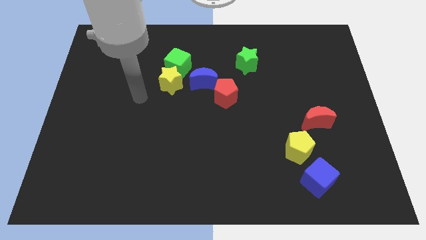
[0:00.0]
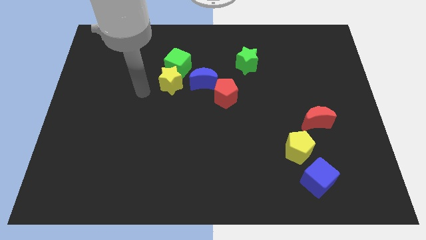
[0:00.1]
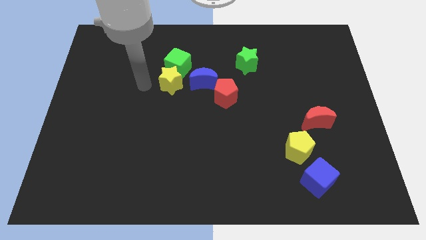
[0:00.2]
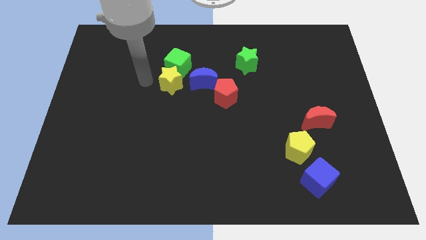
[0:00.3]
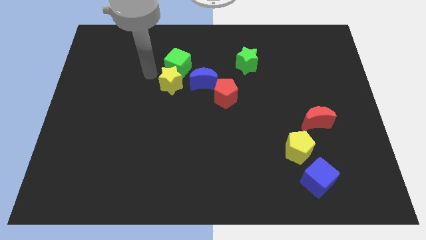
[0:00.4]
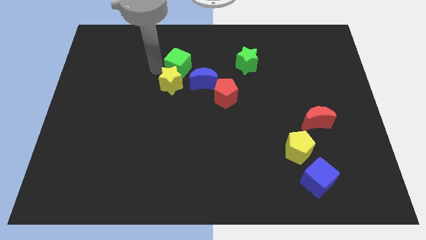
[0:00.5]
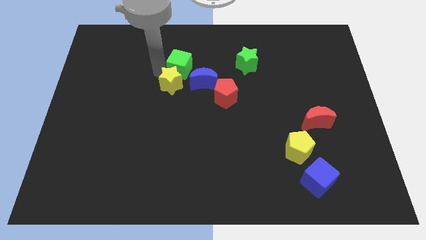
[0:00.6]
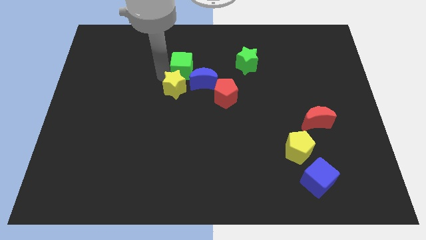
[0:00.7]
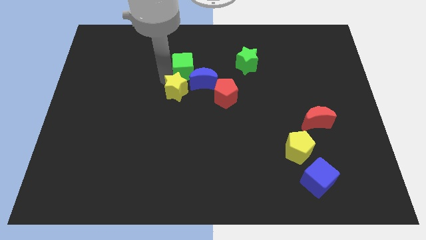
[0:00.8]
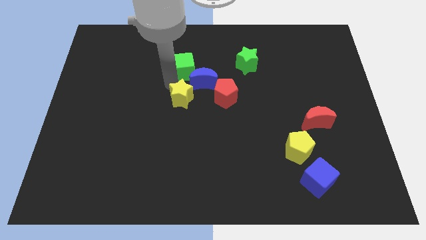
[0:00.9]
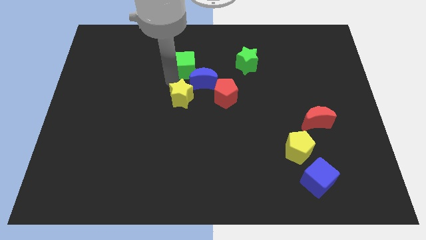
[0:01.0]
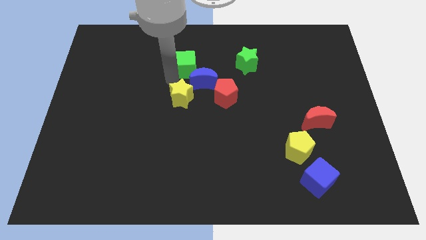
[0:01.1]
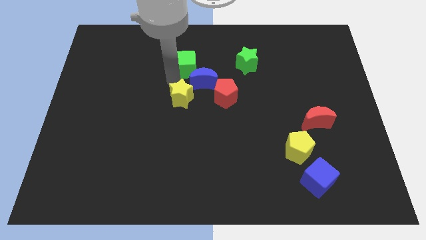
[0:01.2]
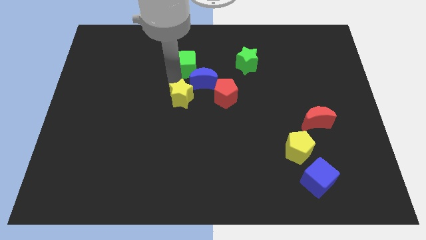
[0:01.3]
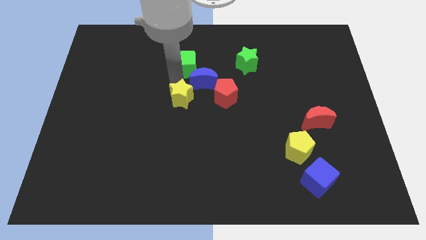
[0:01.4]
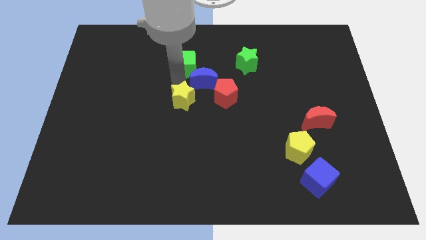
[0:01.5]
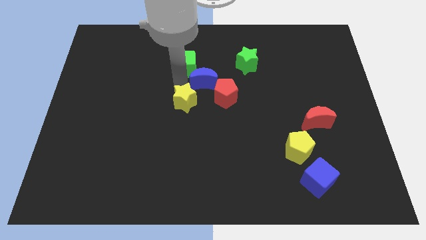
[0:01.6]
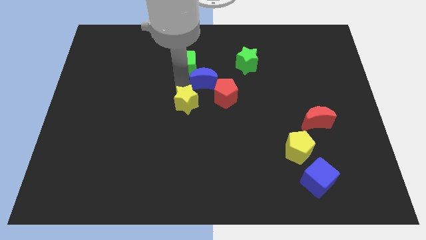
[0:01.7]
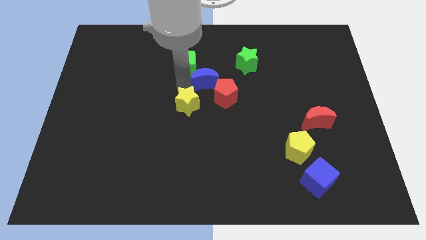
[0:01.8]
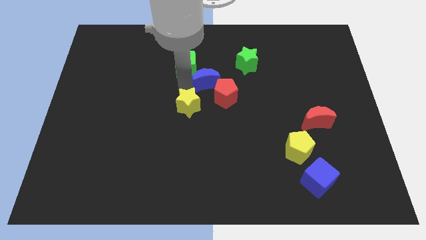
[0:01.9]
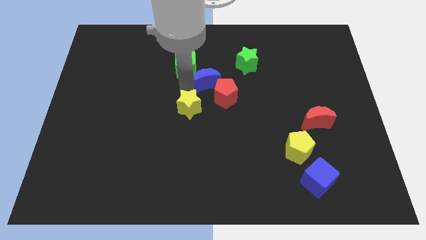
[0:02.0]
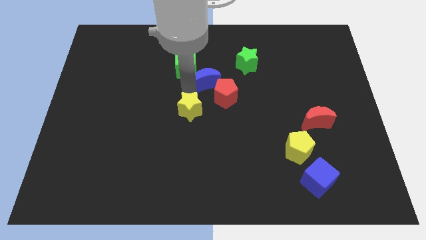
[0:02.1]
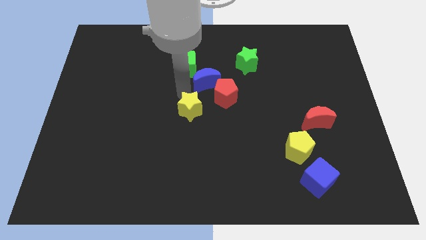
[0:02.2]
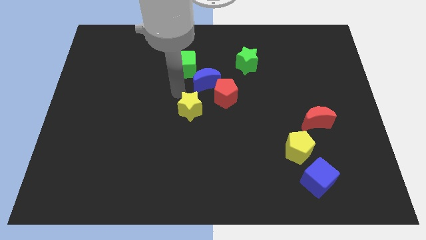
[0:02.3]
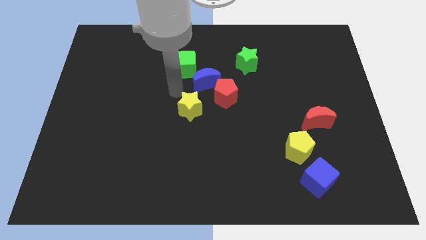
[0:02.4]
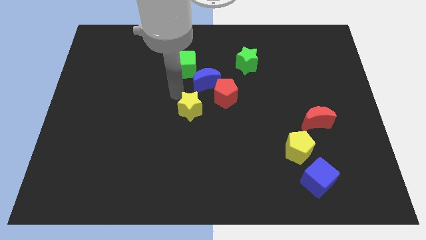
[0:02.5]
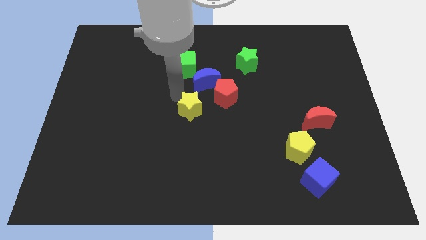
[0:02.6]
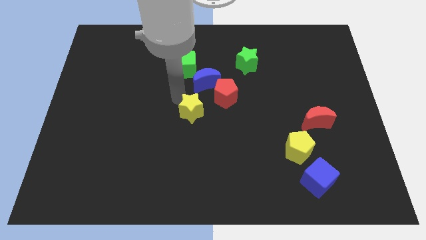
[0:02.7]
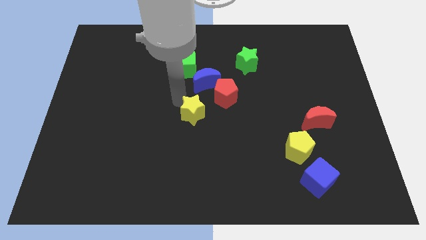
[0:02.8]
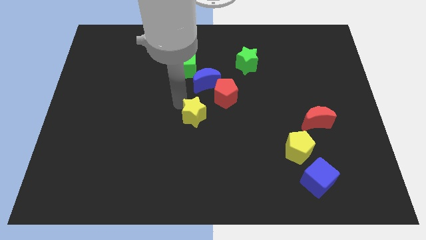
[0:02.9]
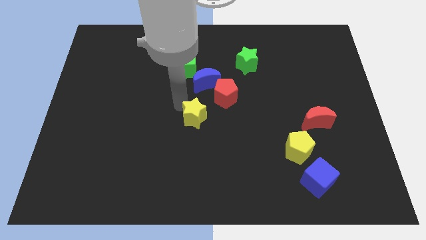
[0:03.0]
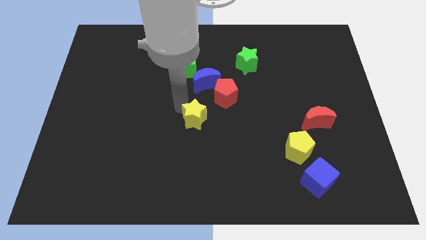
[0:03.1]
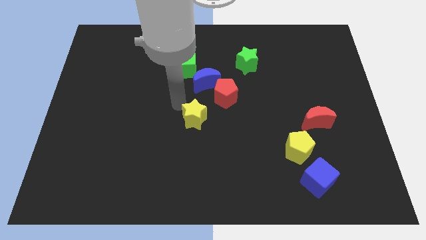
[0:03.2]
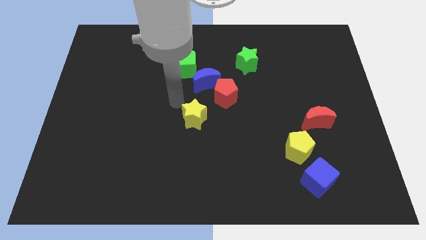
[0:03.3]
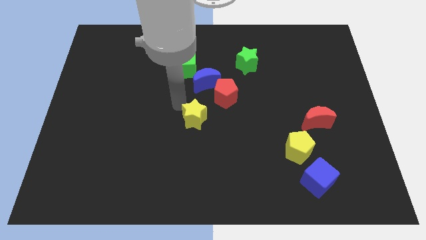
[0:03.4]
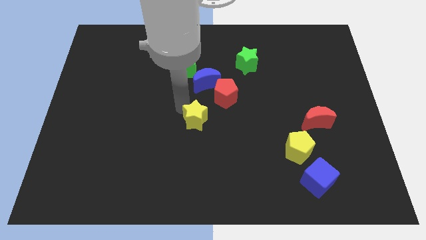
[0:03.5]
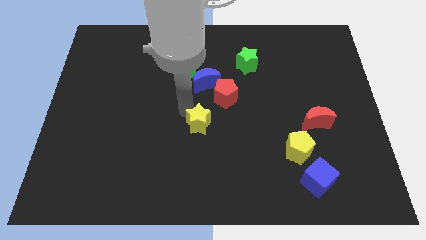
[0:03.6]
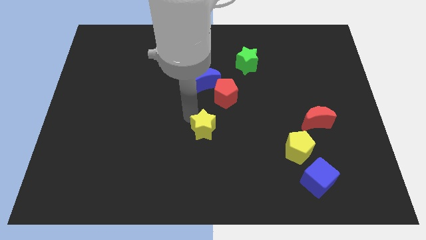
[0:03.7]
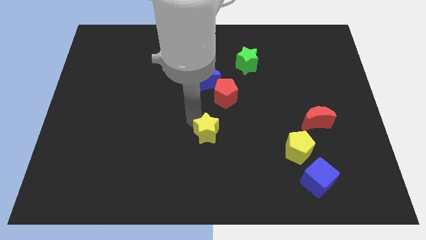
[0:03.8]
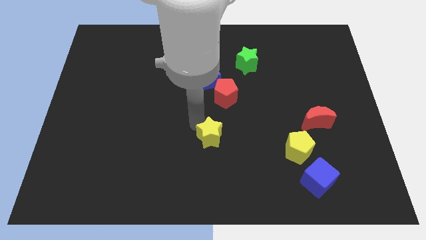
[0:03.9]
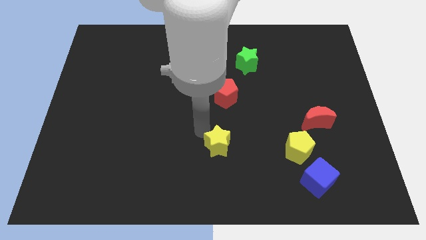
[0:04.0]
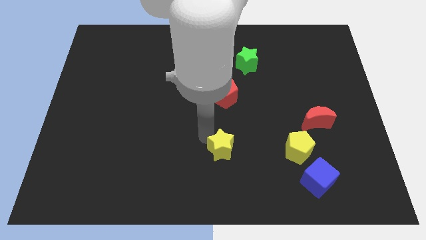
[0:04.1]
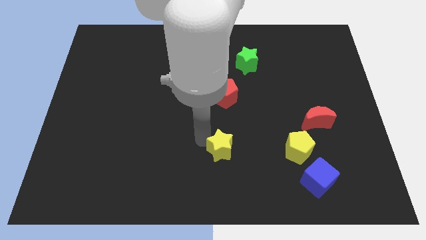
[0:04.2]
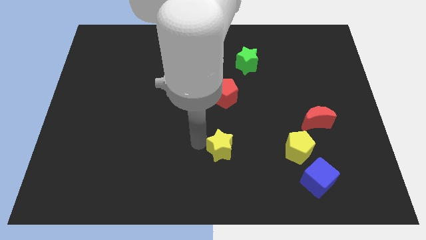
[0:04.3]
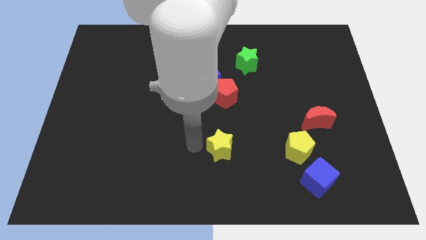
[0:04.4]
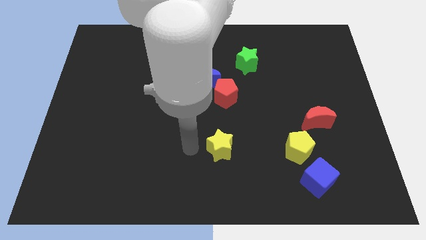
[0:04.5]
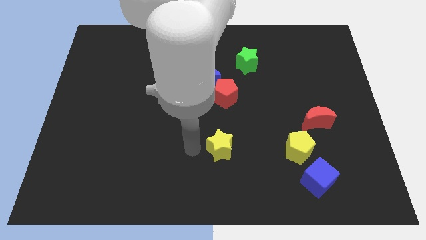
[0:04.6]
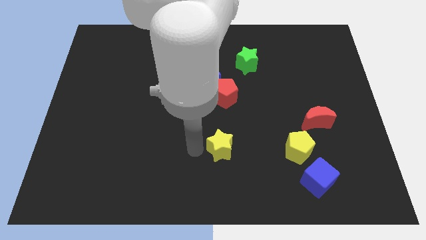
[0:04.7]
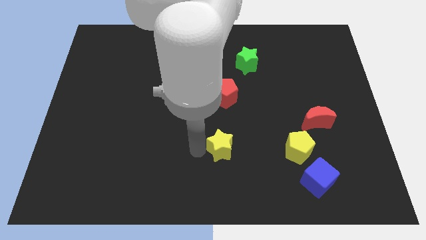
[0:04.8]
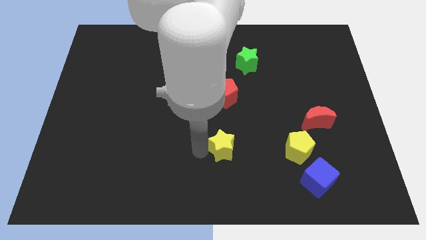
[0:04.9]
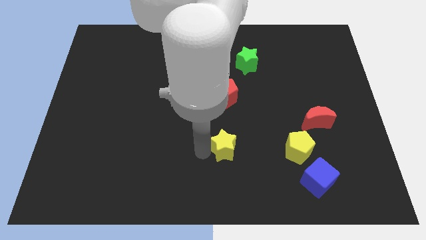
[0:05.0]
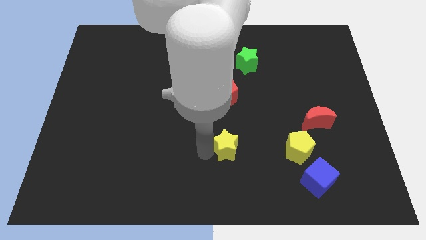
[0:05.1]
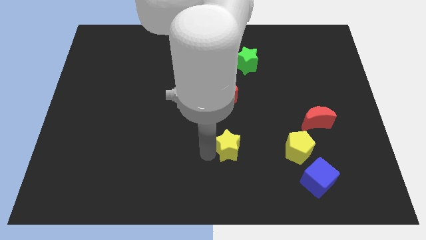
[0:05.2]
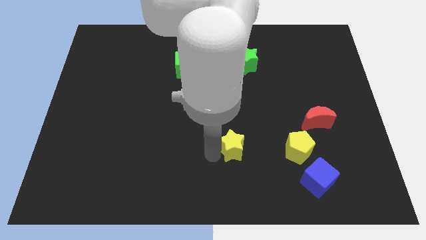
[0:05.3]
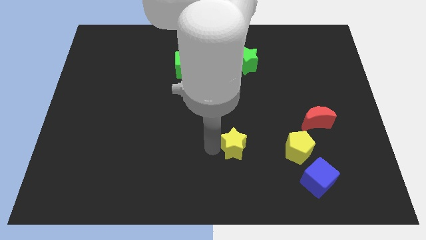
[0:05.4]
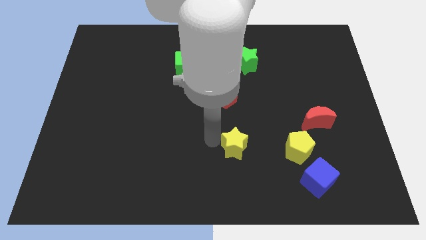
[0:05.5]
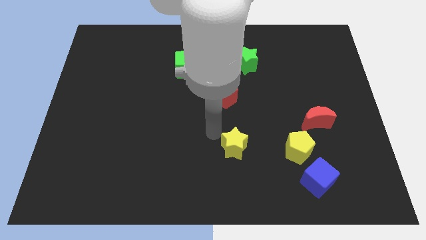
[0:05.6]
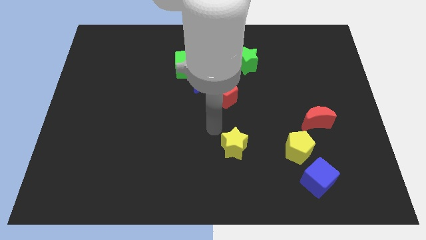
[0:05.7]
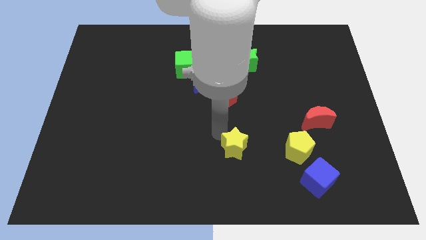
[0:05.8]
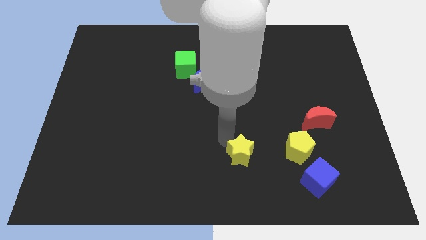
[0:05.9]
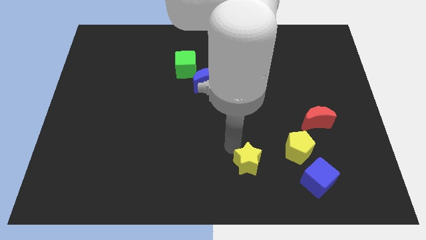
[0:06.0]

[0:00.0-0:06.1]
put the yellow star to the left side of the blue cube

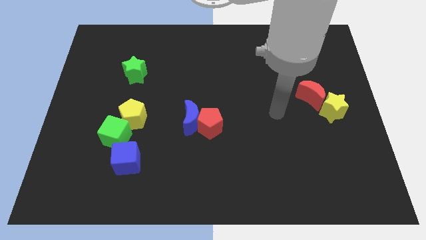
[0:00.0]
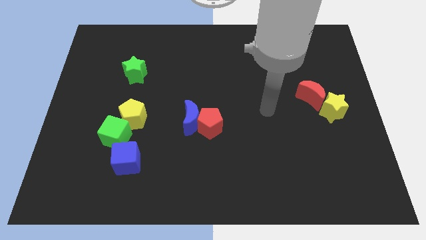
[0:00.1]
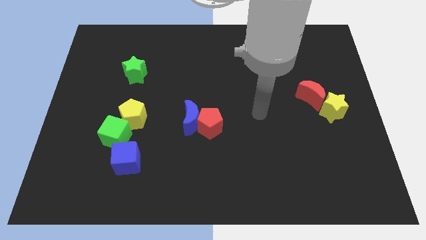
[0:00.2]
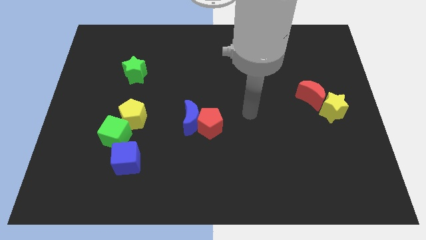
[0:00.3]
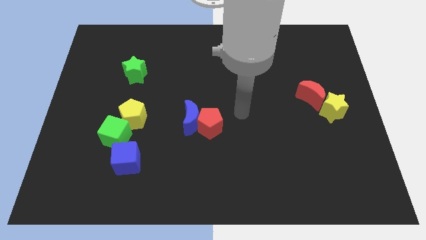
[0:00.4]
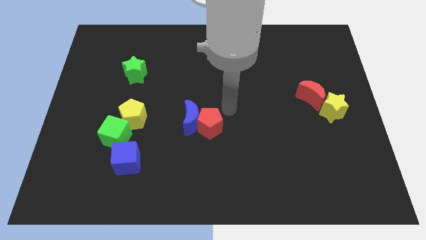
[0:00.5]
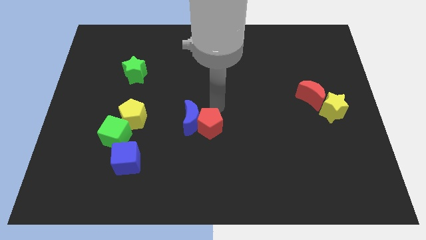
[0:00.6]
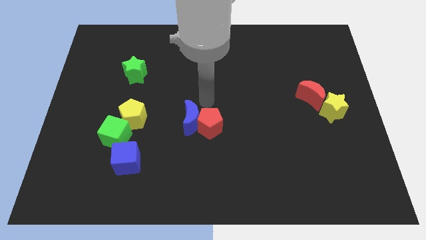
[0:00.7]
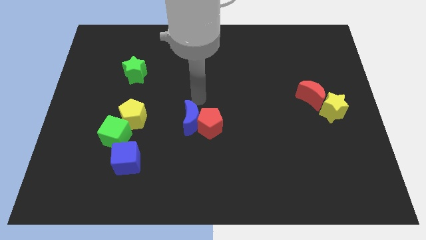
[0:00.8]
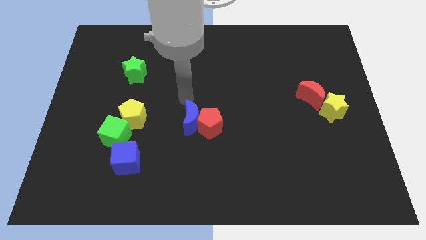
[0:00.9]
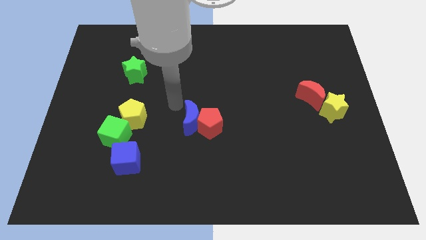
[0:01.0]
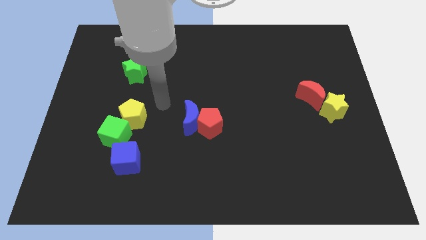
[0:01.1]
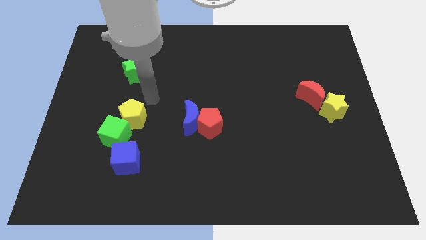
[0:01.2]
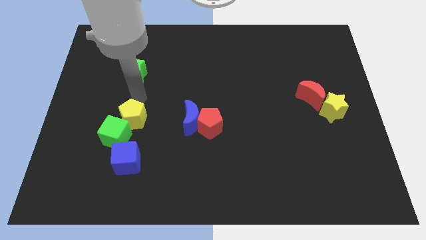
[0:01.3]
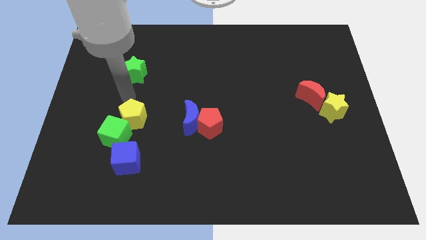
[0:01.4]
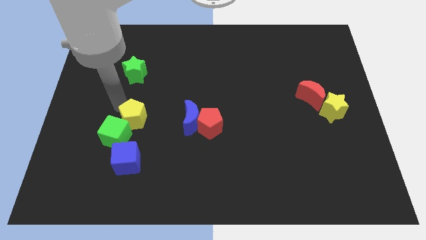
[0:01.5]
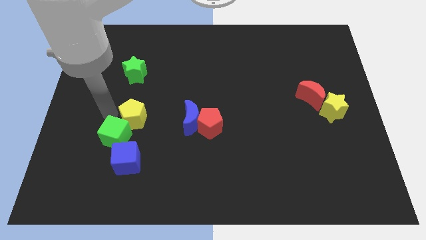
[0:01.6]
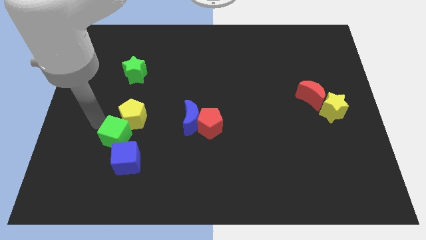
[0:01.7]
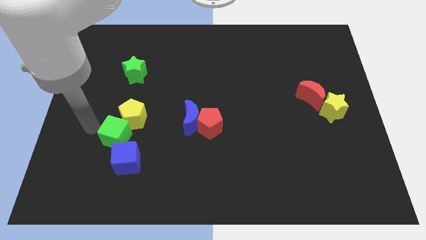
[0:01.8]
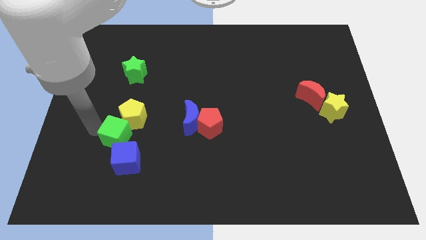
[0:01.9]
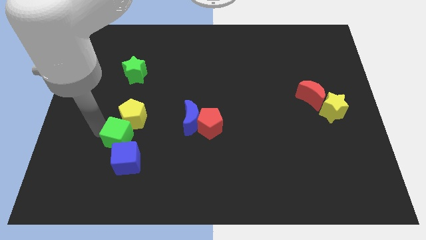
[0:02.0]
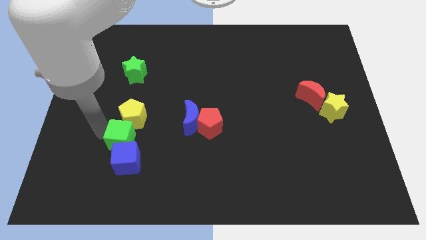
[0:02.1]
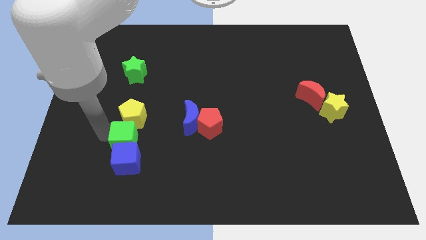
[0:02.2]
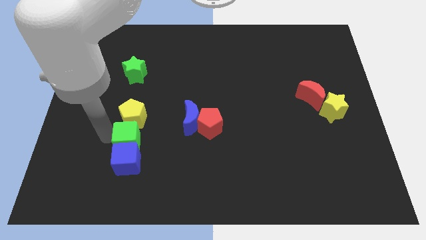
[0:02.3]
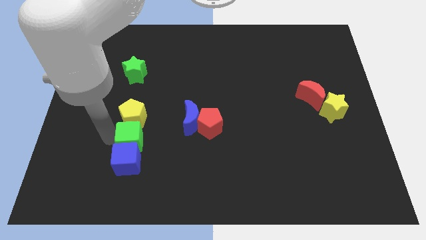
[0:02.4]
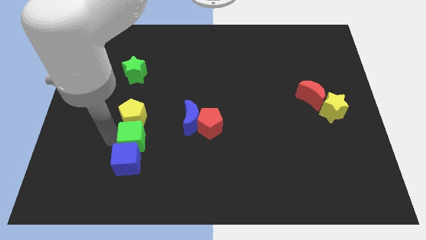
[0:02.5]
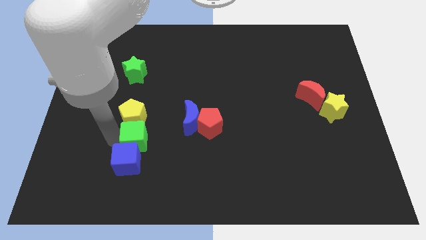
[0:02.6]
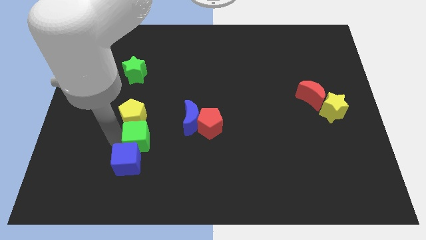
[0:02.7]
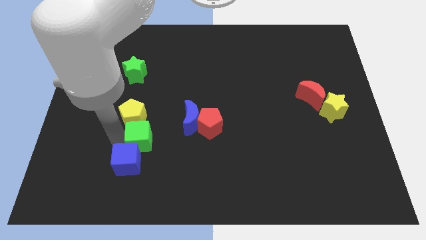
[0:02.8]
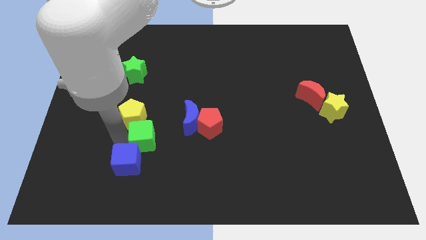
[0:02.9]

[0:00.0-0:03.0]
move the green cube just left of the red pentagon
